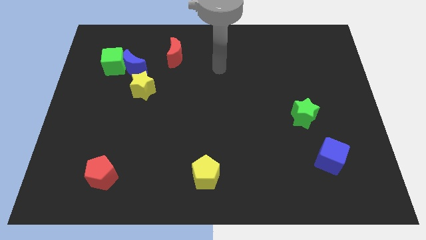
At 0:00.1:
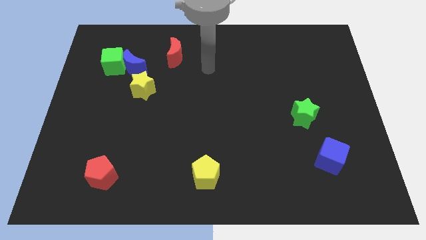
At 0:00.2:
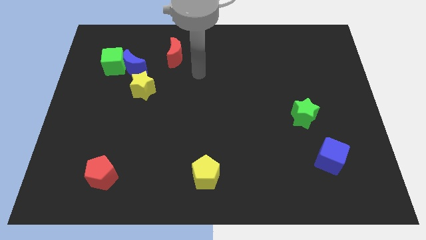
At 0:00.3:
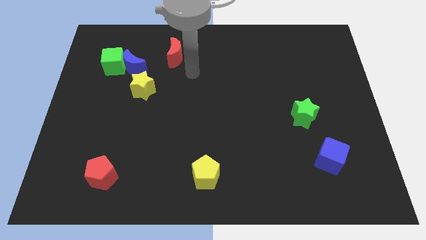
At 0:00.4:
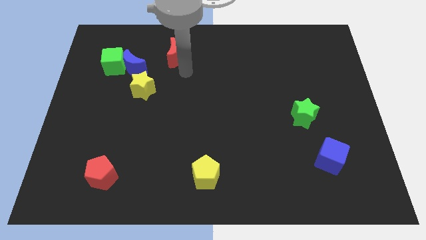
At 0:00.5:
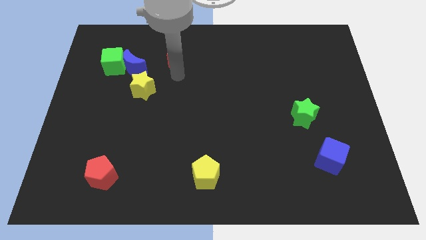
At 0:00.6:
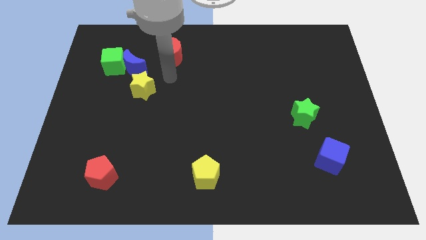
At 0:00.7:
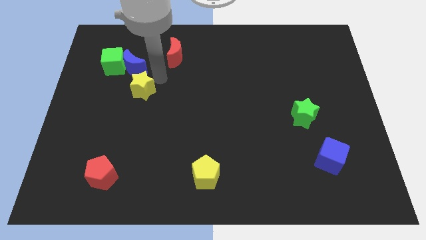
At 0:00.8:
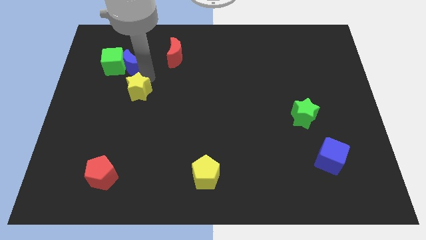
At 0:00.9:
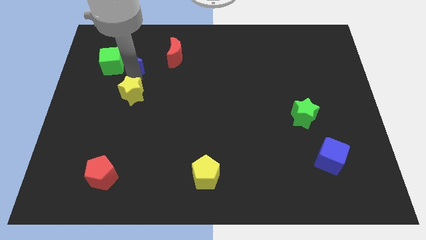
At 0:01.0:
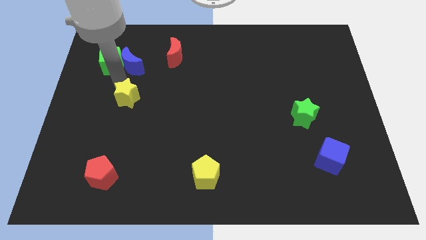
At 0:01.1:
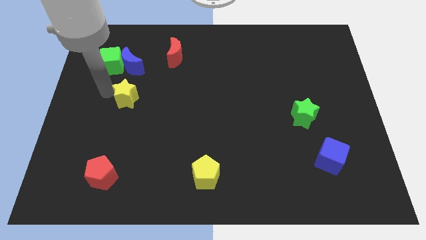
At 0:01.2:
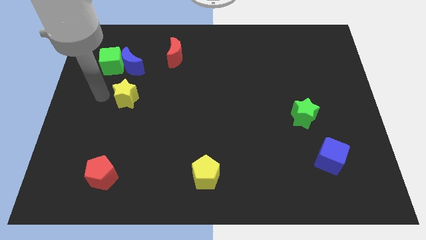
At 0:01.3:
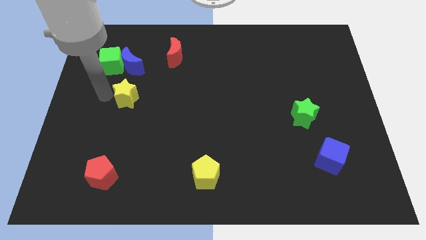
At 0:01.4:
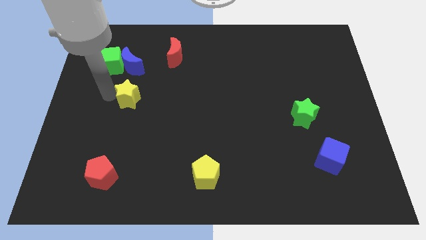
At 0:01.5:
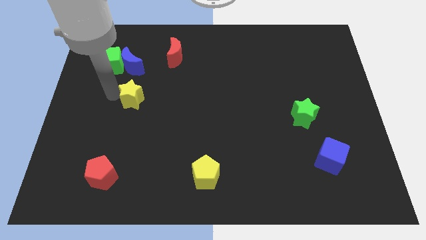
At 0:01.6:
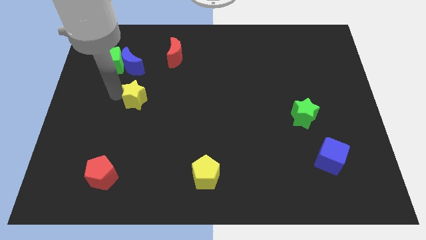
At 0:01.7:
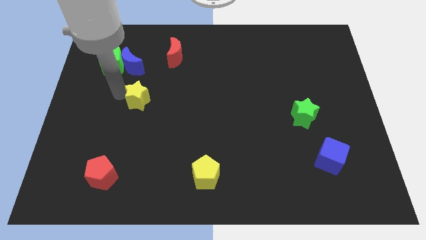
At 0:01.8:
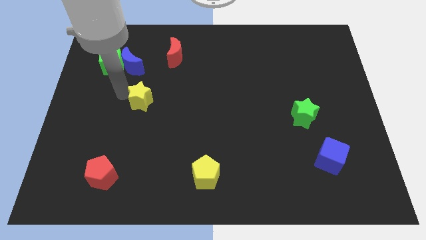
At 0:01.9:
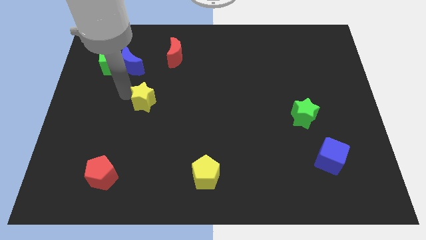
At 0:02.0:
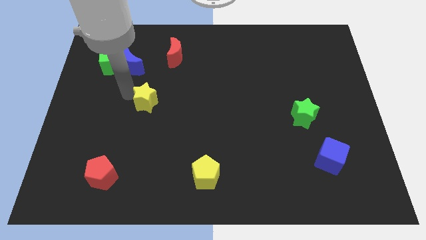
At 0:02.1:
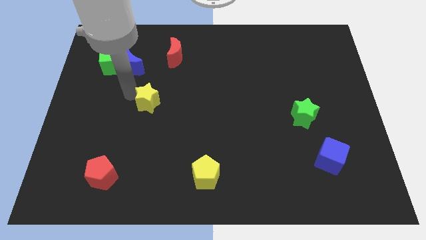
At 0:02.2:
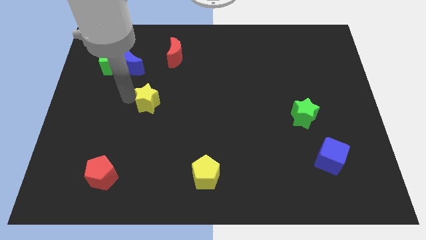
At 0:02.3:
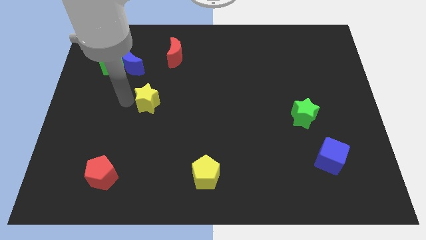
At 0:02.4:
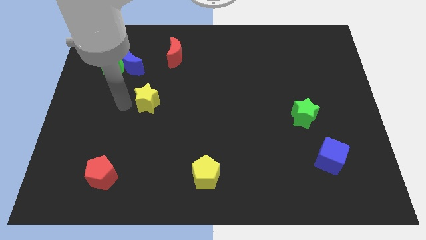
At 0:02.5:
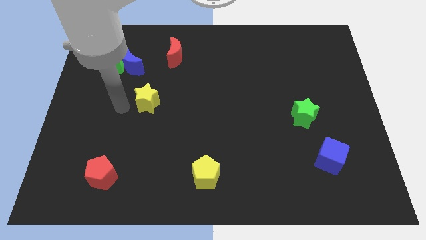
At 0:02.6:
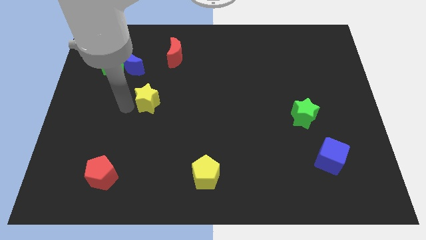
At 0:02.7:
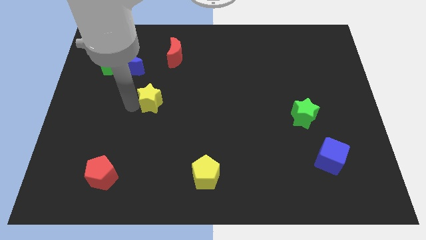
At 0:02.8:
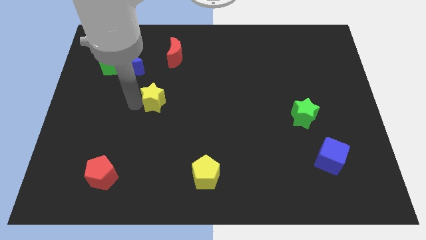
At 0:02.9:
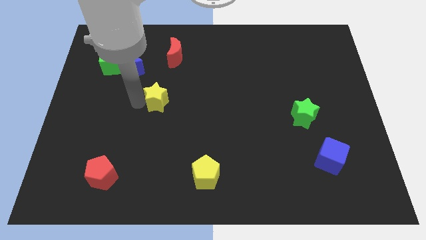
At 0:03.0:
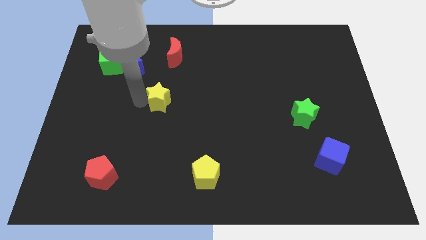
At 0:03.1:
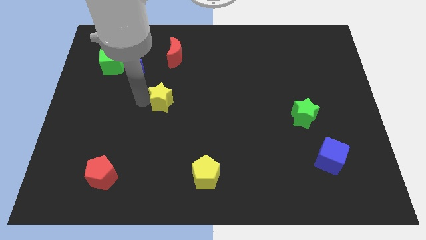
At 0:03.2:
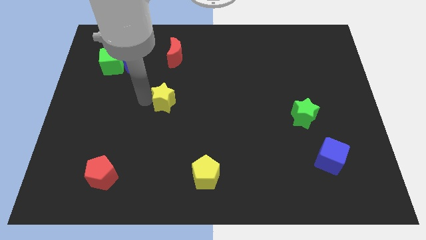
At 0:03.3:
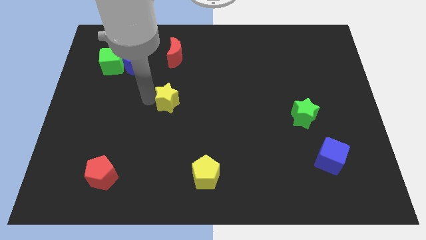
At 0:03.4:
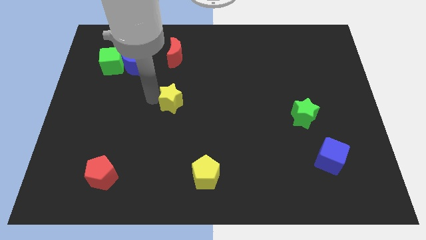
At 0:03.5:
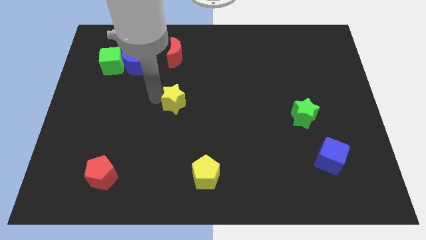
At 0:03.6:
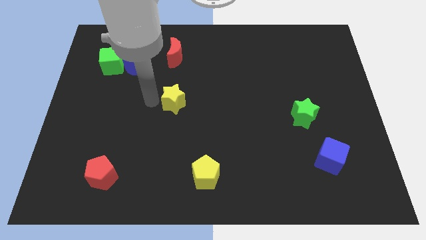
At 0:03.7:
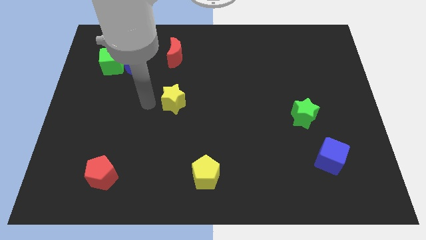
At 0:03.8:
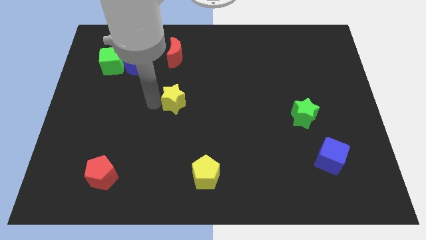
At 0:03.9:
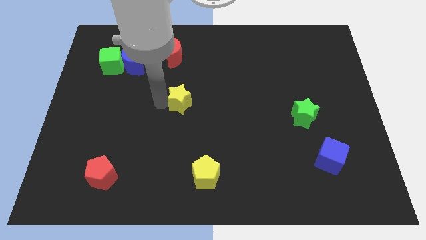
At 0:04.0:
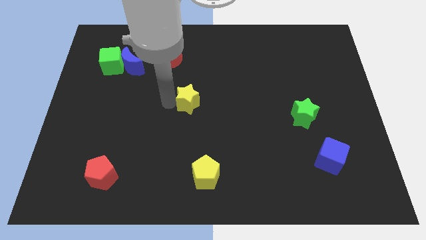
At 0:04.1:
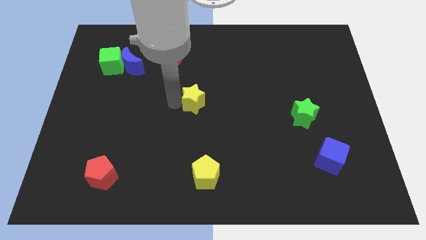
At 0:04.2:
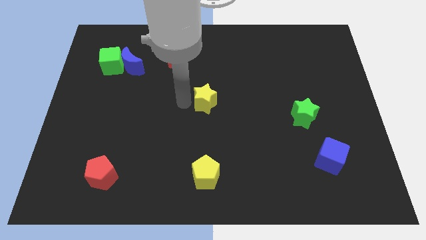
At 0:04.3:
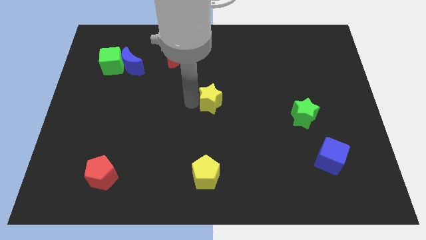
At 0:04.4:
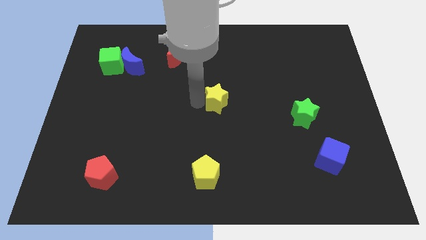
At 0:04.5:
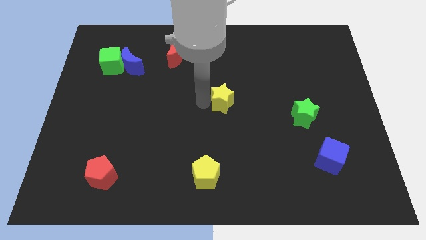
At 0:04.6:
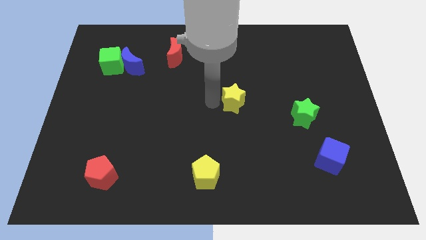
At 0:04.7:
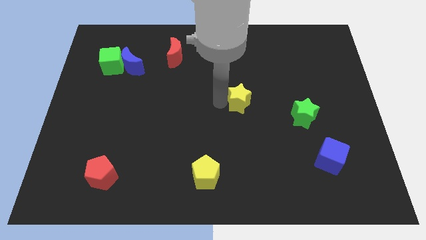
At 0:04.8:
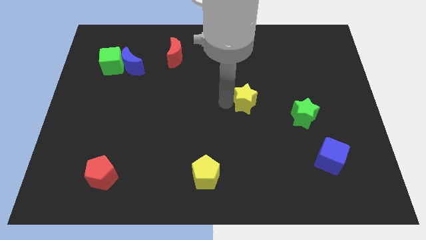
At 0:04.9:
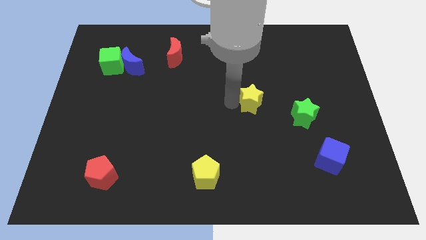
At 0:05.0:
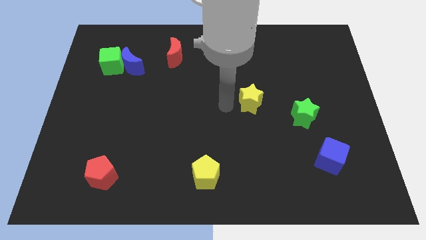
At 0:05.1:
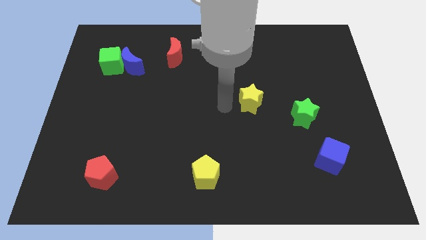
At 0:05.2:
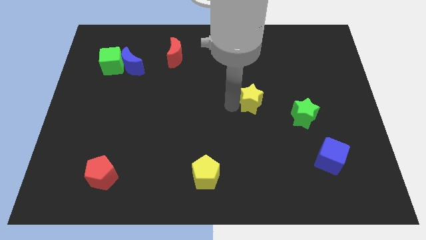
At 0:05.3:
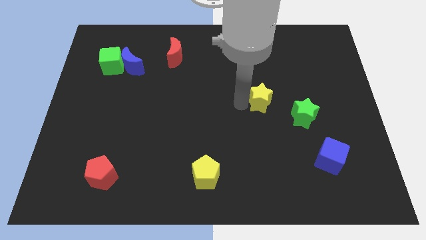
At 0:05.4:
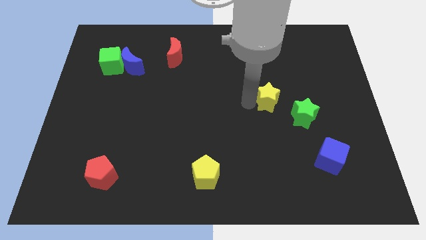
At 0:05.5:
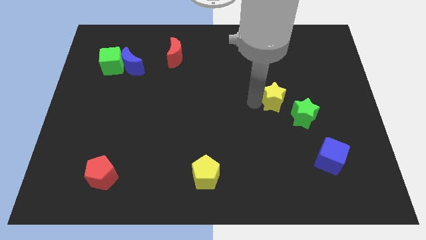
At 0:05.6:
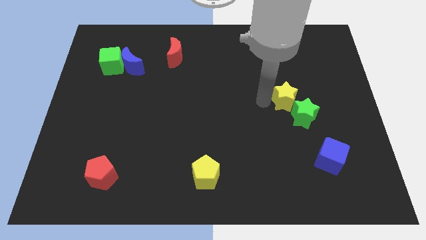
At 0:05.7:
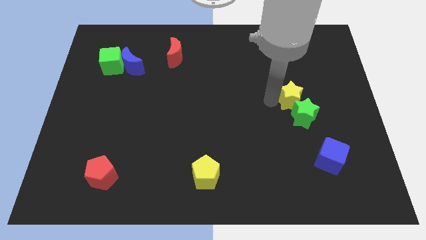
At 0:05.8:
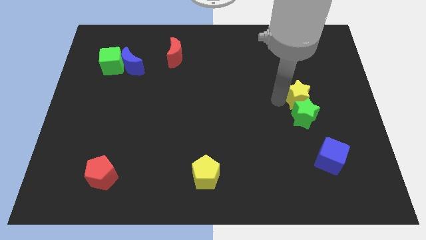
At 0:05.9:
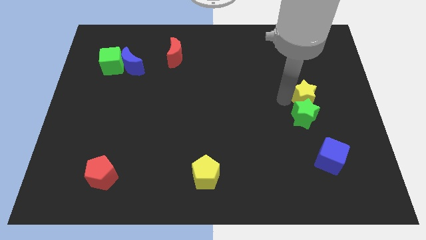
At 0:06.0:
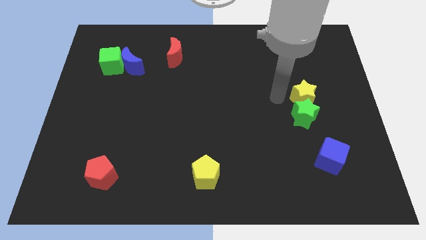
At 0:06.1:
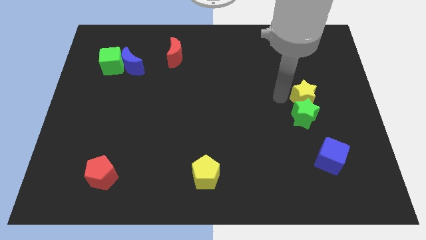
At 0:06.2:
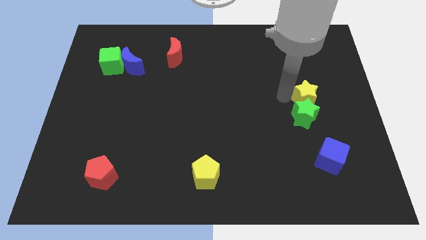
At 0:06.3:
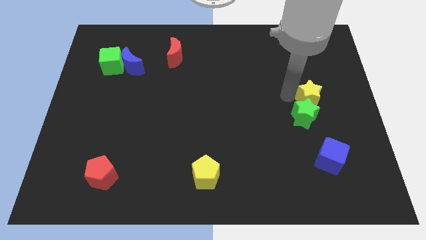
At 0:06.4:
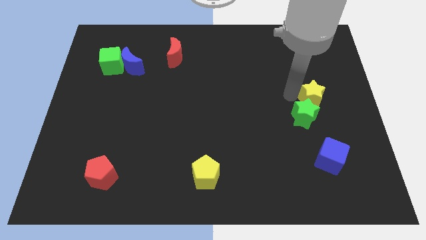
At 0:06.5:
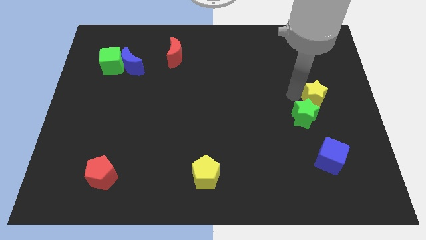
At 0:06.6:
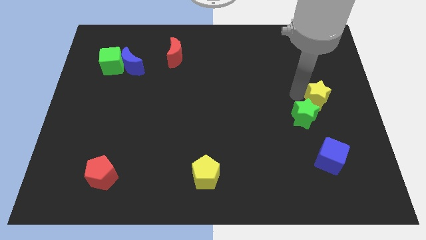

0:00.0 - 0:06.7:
push the yellow star to the right side
